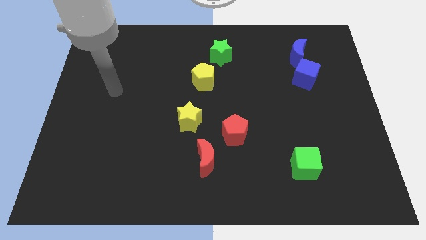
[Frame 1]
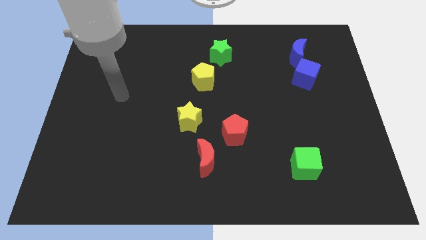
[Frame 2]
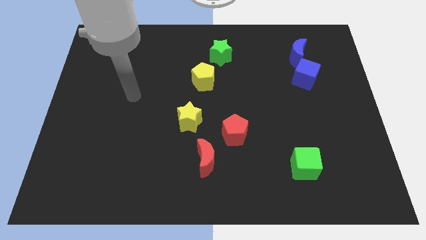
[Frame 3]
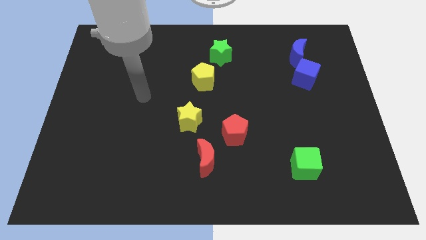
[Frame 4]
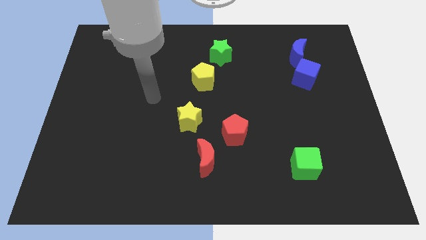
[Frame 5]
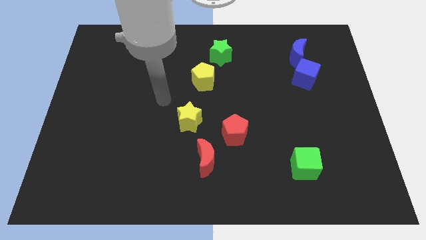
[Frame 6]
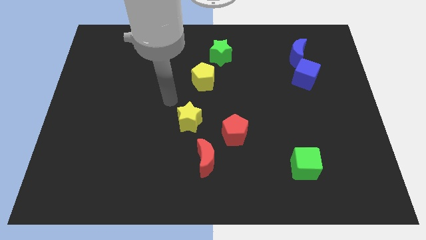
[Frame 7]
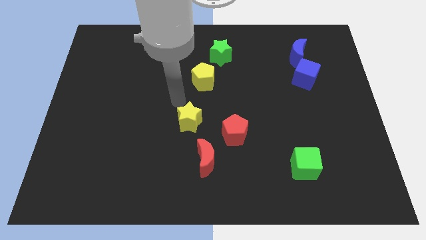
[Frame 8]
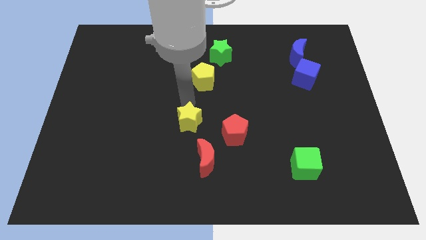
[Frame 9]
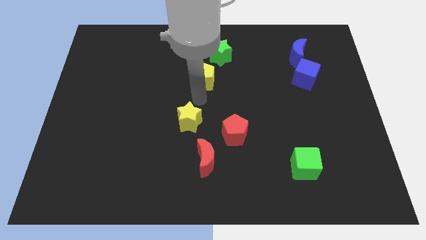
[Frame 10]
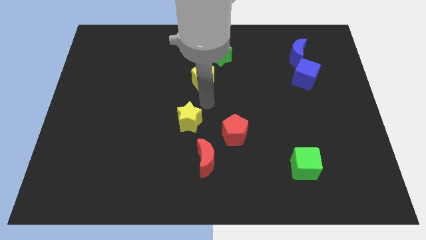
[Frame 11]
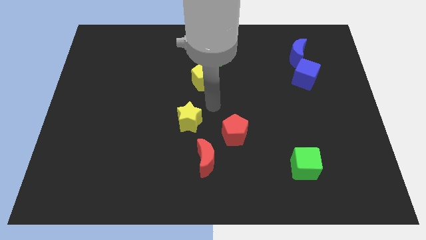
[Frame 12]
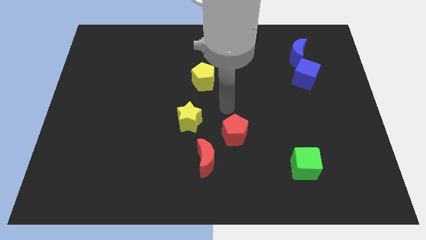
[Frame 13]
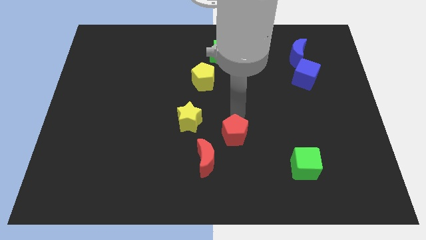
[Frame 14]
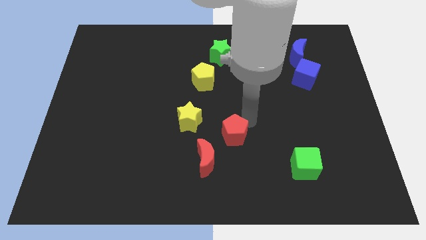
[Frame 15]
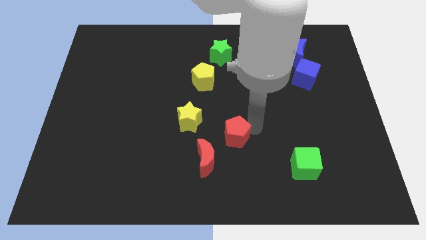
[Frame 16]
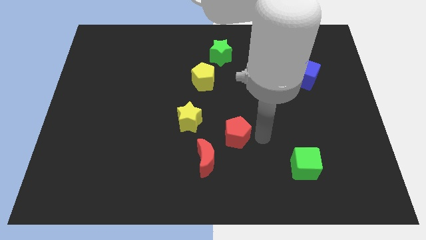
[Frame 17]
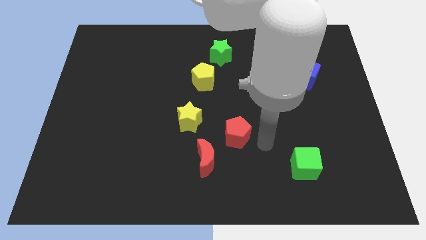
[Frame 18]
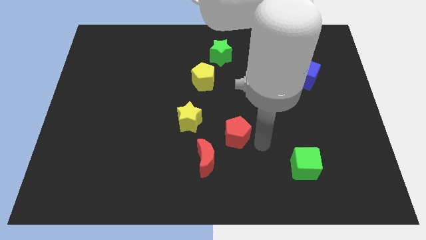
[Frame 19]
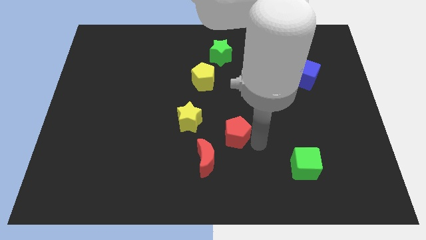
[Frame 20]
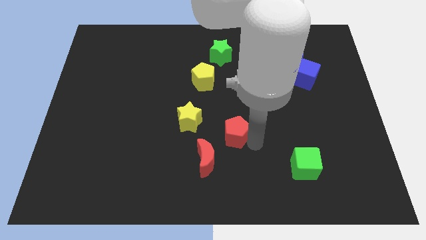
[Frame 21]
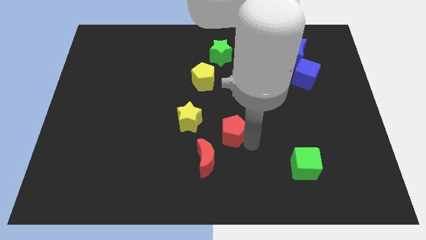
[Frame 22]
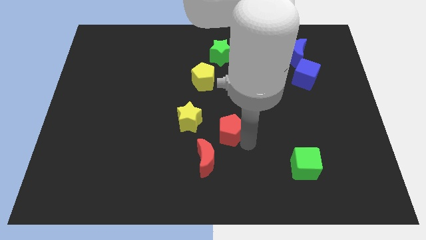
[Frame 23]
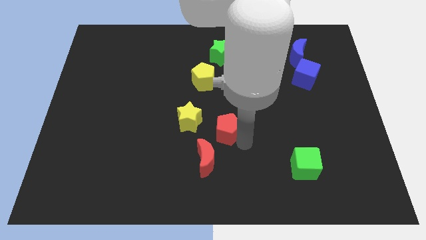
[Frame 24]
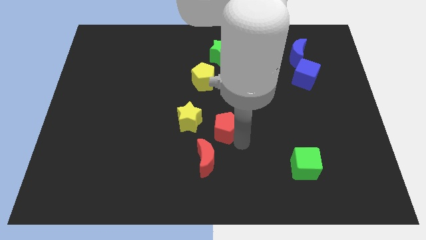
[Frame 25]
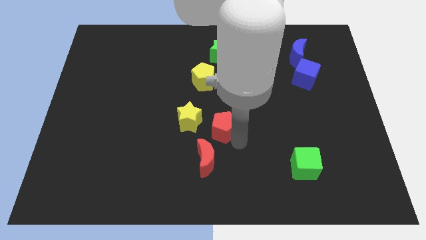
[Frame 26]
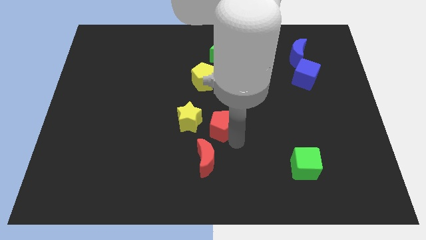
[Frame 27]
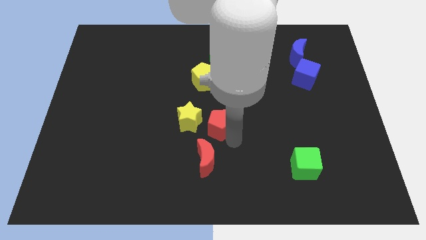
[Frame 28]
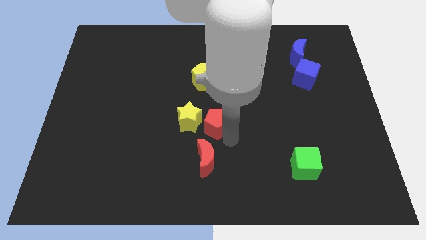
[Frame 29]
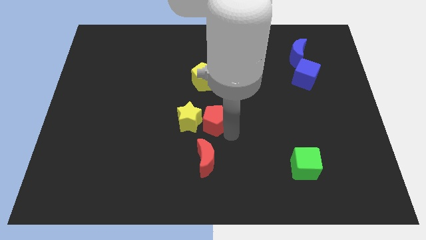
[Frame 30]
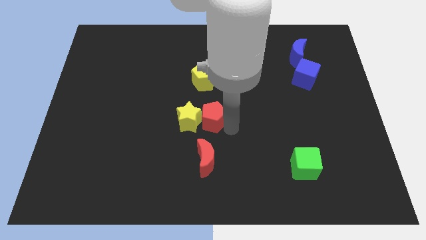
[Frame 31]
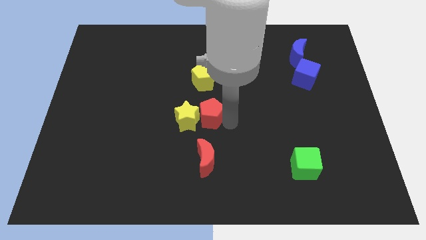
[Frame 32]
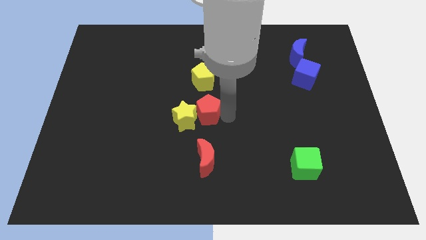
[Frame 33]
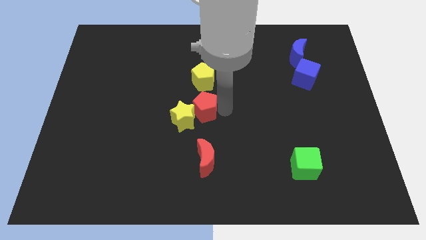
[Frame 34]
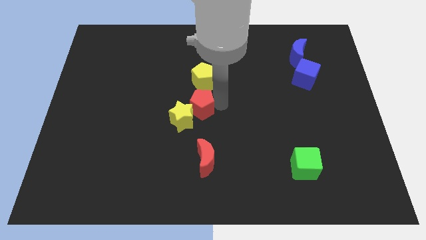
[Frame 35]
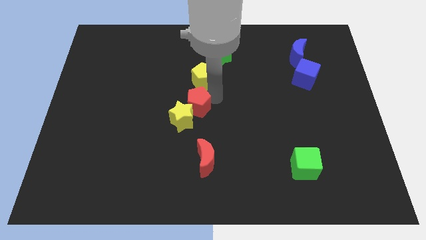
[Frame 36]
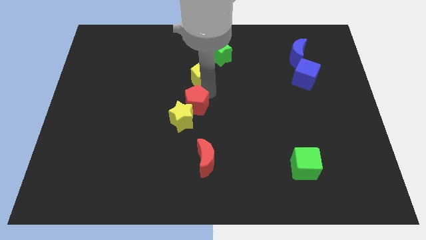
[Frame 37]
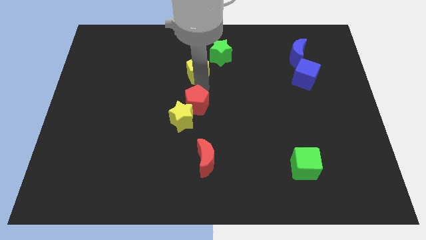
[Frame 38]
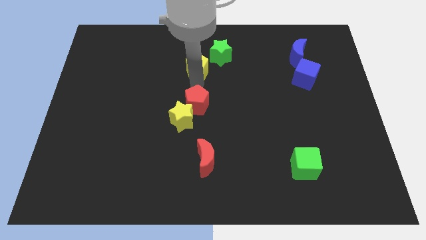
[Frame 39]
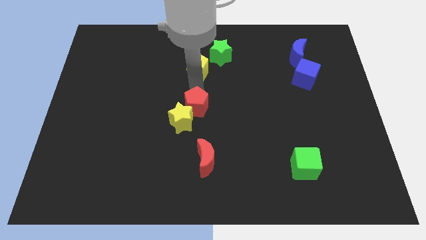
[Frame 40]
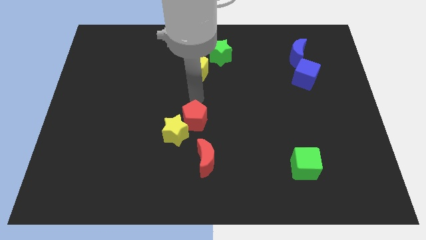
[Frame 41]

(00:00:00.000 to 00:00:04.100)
slide the red pentagon left somewhat

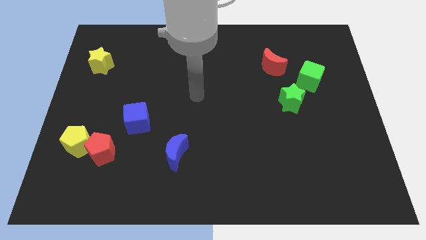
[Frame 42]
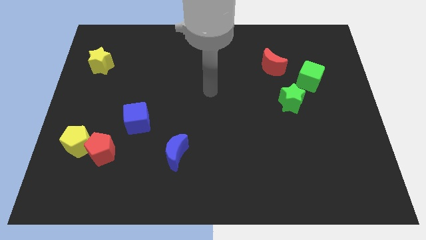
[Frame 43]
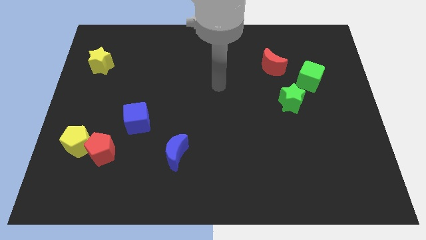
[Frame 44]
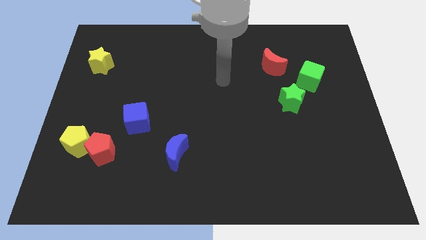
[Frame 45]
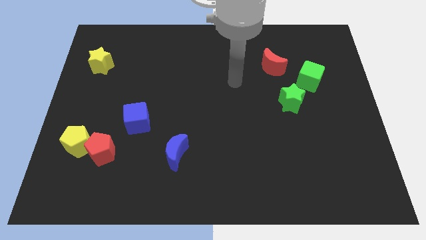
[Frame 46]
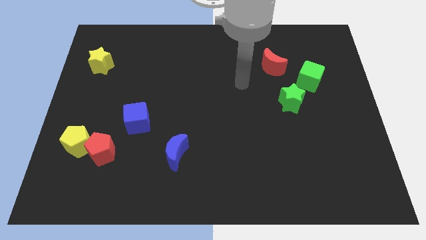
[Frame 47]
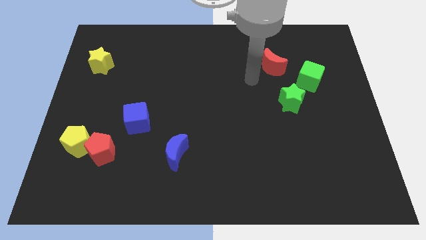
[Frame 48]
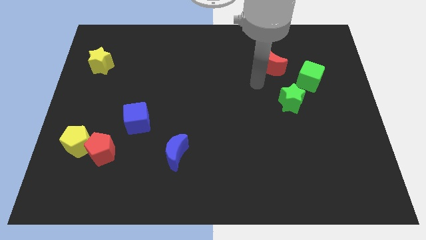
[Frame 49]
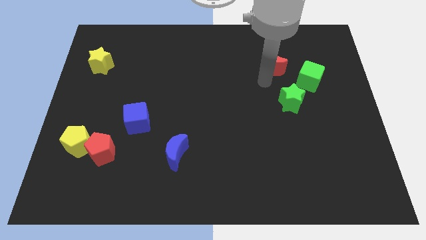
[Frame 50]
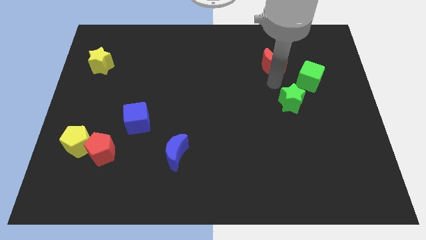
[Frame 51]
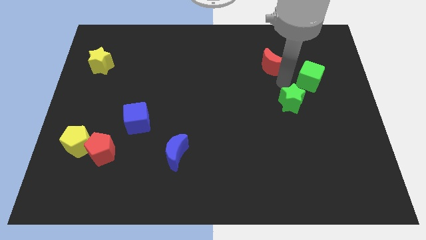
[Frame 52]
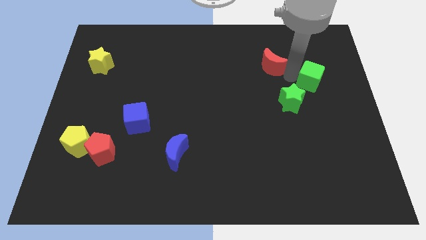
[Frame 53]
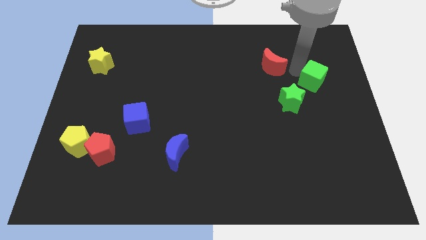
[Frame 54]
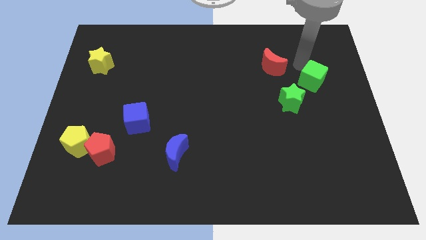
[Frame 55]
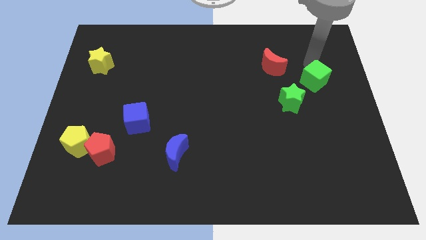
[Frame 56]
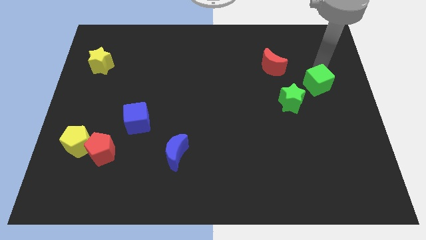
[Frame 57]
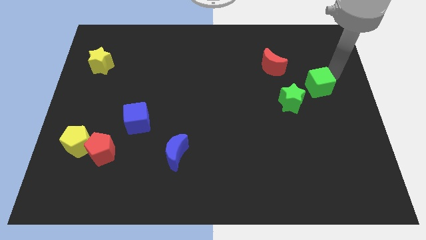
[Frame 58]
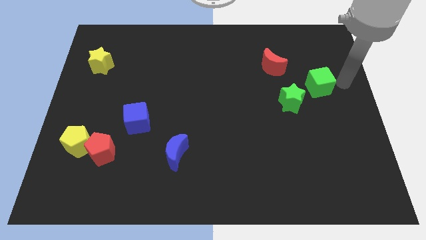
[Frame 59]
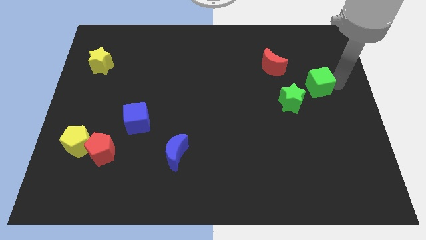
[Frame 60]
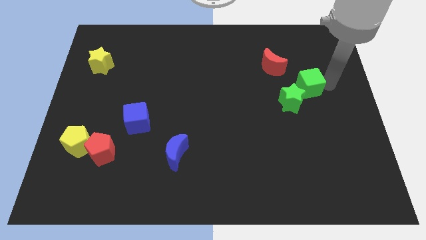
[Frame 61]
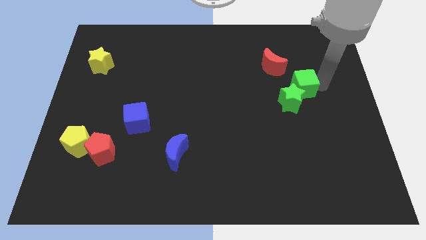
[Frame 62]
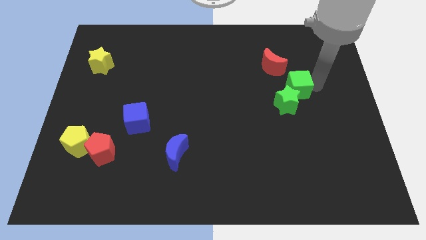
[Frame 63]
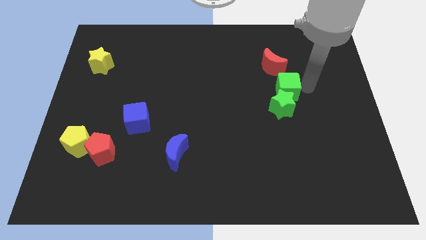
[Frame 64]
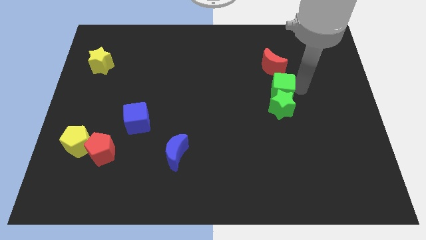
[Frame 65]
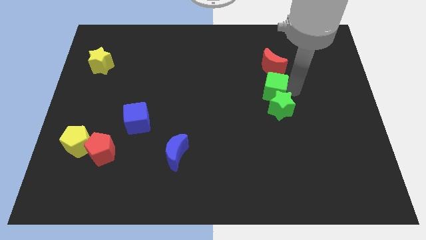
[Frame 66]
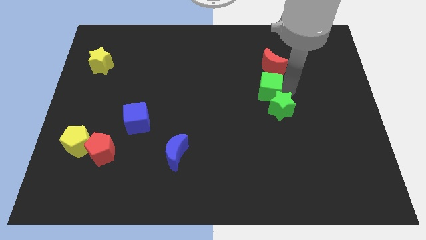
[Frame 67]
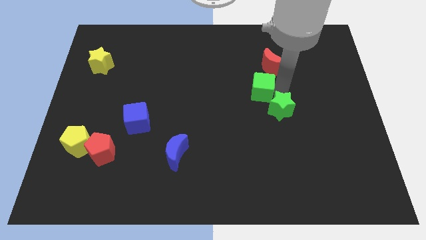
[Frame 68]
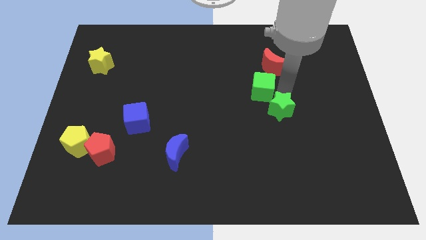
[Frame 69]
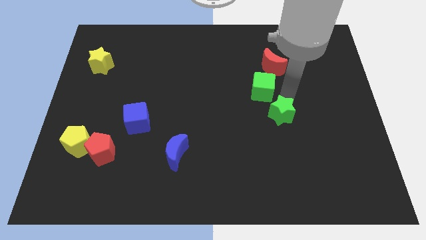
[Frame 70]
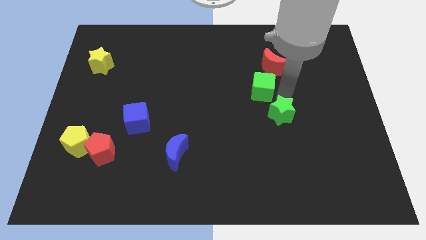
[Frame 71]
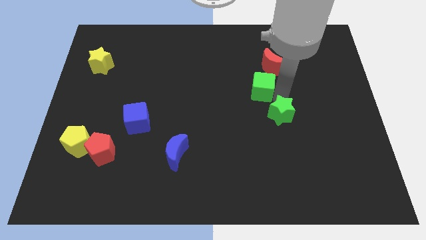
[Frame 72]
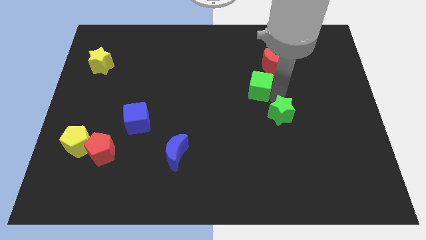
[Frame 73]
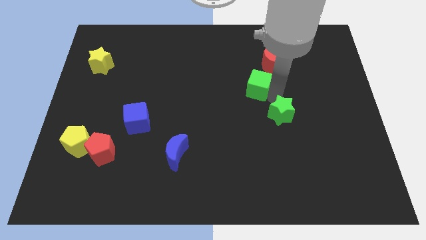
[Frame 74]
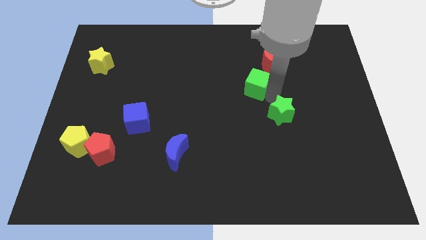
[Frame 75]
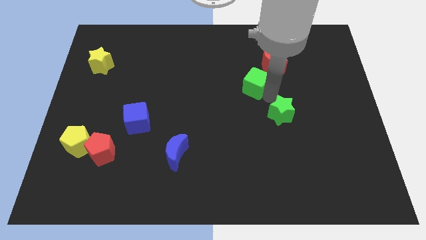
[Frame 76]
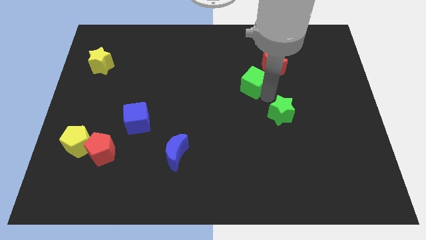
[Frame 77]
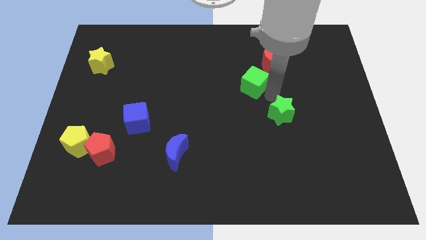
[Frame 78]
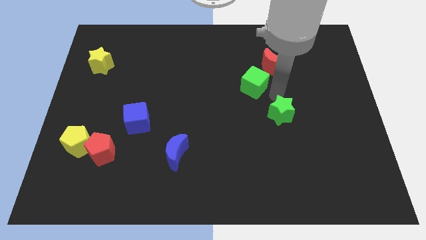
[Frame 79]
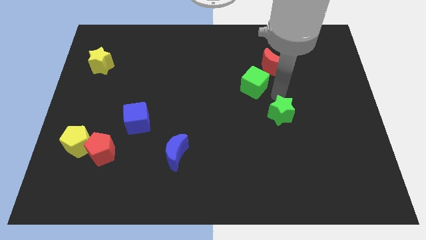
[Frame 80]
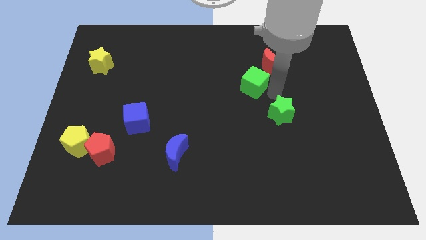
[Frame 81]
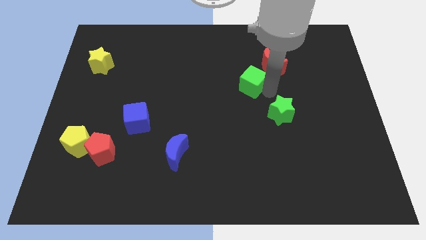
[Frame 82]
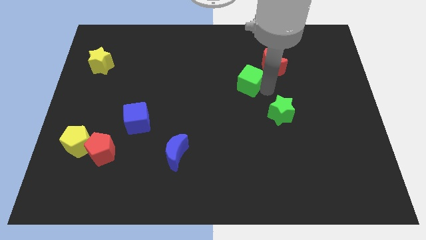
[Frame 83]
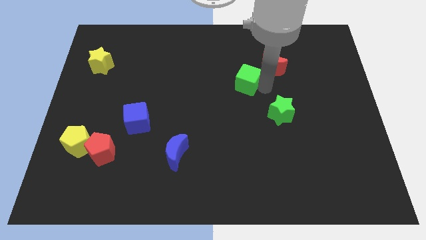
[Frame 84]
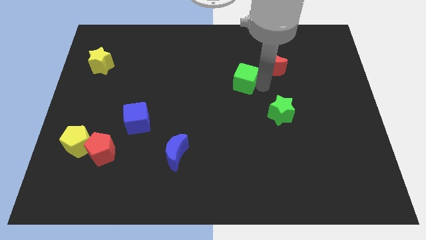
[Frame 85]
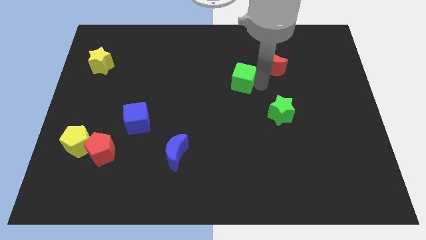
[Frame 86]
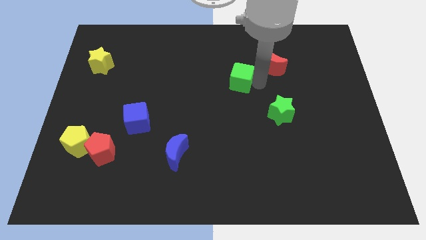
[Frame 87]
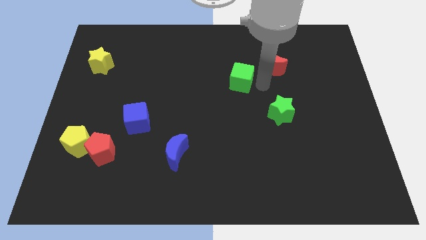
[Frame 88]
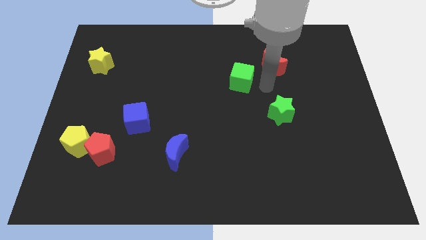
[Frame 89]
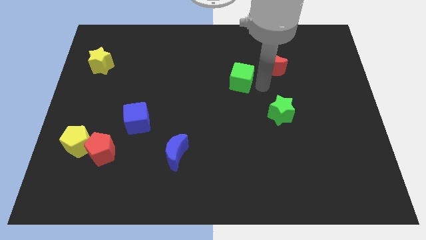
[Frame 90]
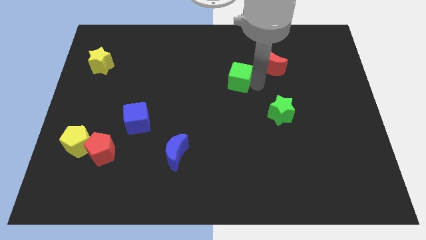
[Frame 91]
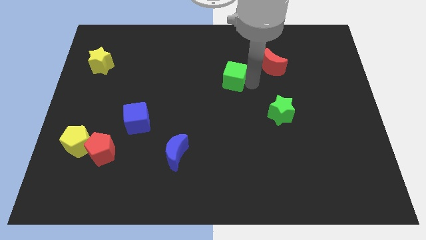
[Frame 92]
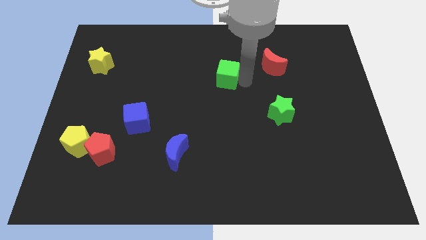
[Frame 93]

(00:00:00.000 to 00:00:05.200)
push the green cube to the left
